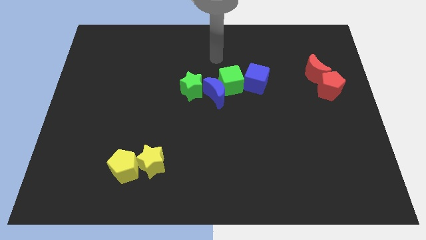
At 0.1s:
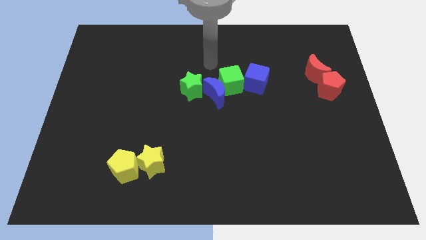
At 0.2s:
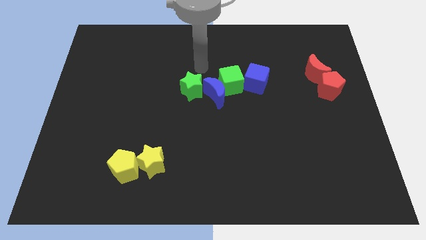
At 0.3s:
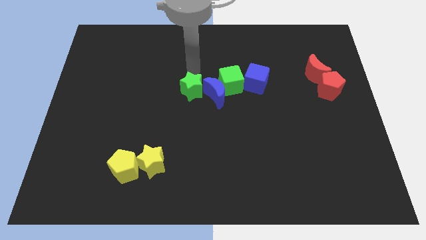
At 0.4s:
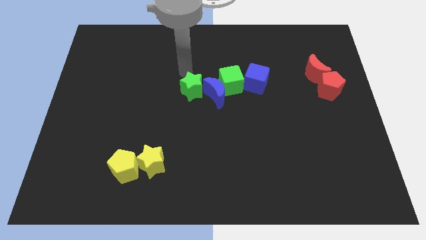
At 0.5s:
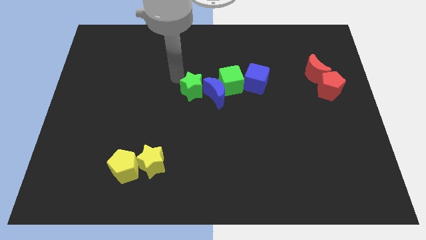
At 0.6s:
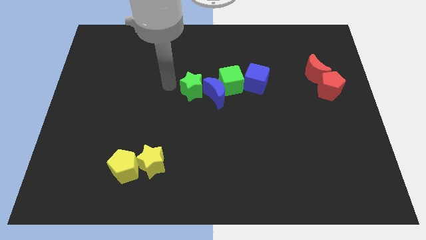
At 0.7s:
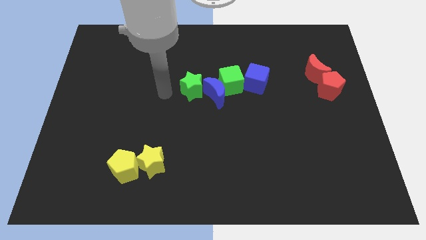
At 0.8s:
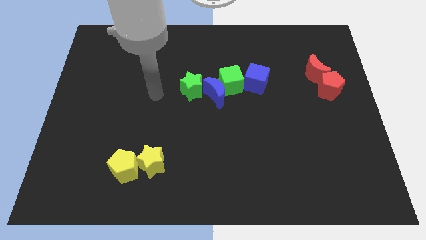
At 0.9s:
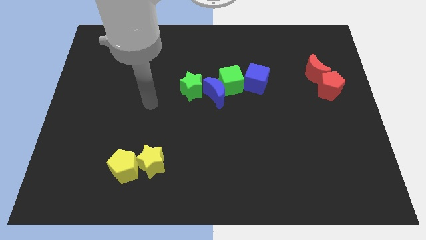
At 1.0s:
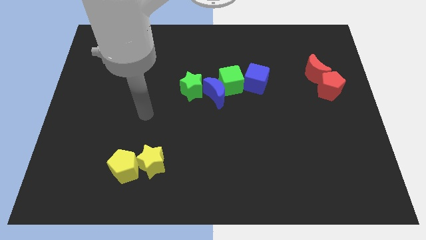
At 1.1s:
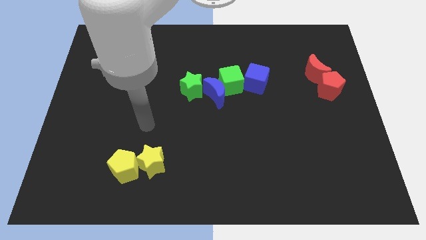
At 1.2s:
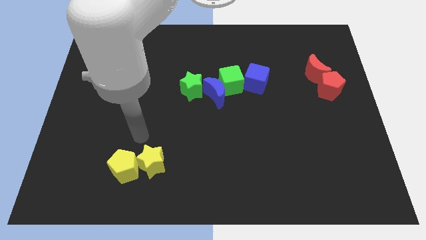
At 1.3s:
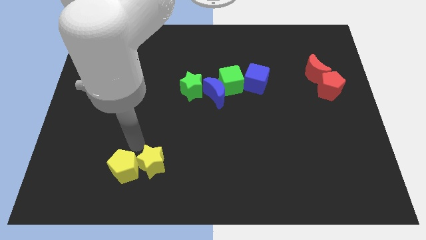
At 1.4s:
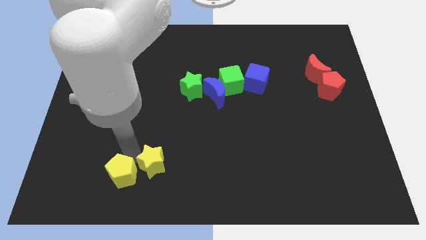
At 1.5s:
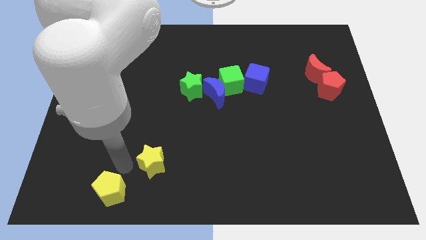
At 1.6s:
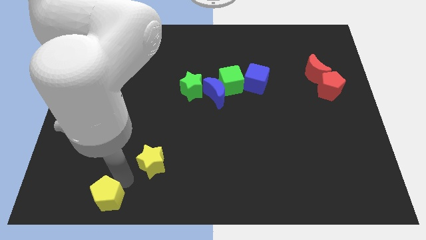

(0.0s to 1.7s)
pull the yellow star apart from the yellow pentagon

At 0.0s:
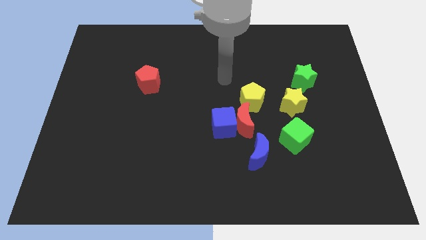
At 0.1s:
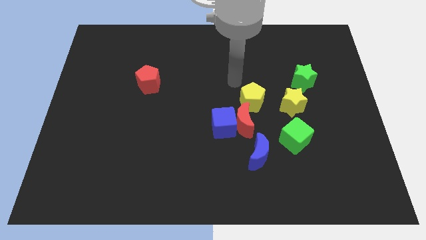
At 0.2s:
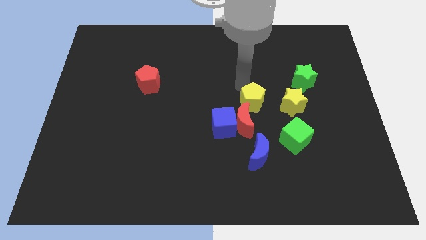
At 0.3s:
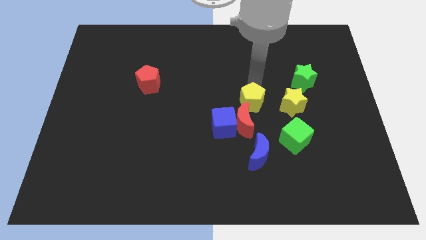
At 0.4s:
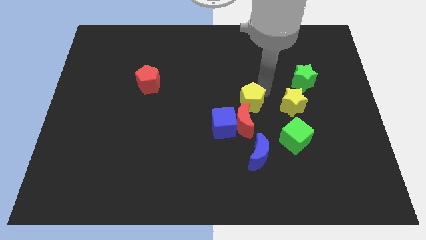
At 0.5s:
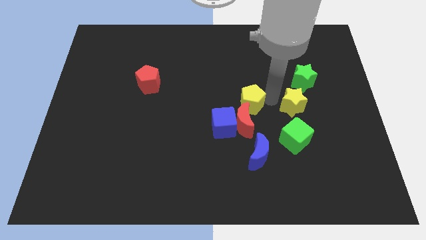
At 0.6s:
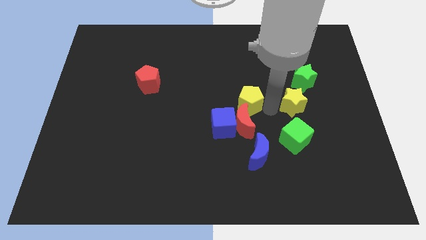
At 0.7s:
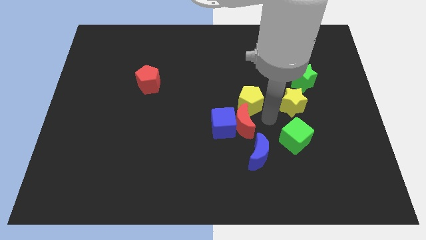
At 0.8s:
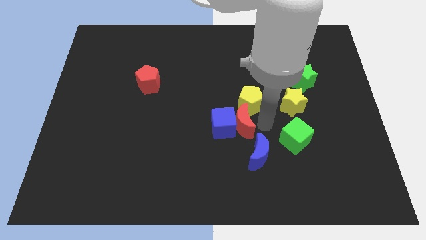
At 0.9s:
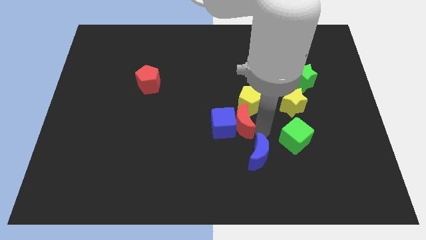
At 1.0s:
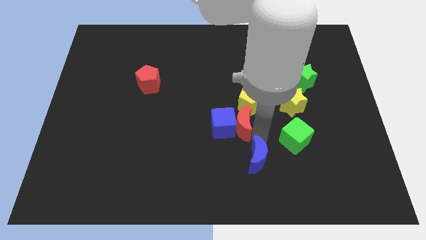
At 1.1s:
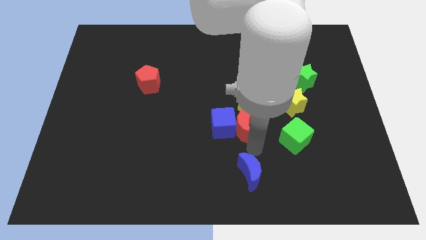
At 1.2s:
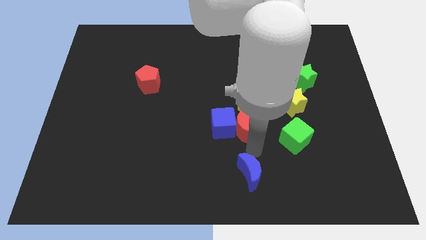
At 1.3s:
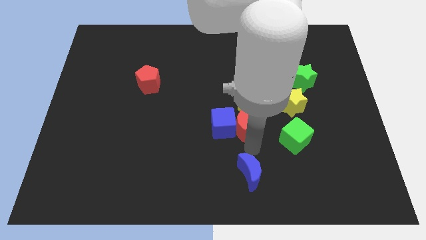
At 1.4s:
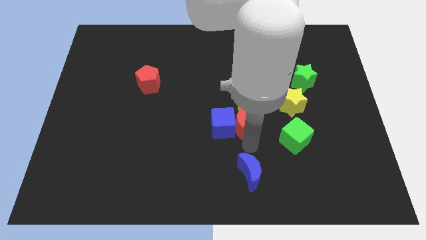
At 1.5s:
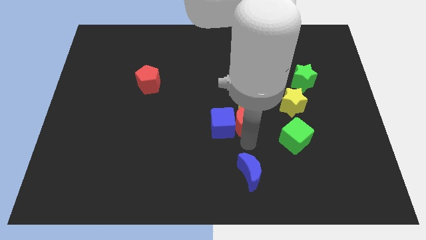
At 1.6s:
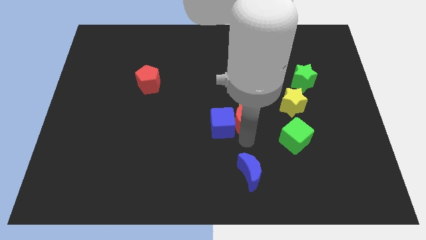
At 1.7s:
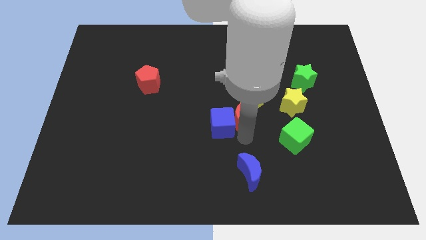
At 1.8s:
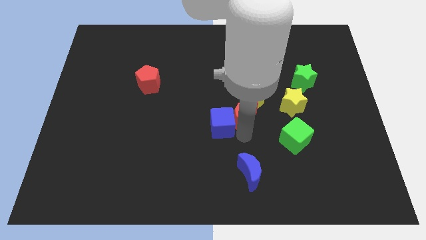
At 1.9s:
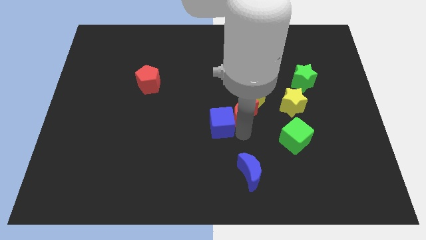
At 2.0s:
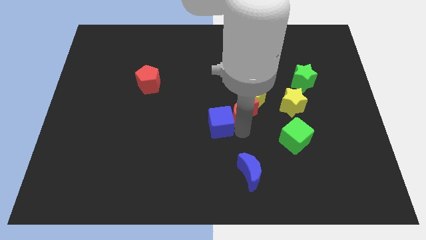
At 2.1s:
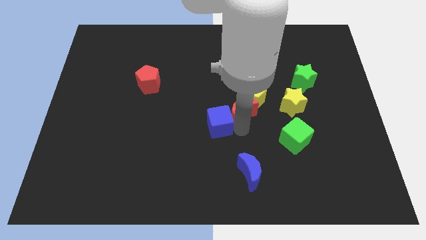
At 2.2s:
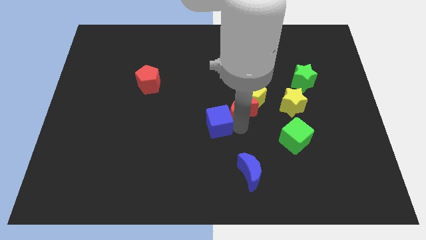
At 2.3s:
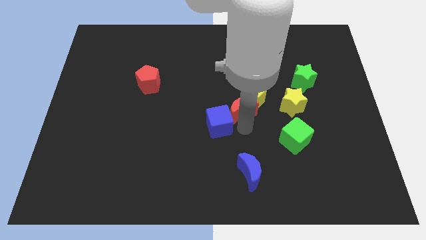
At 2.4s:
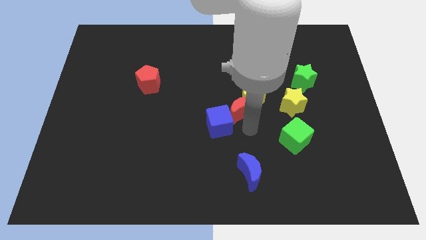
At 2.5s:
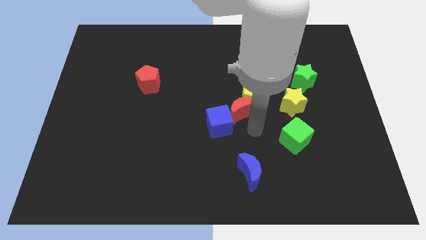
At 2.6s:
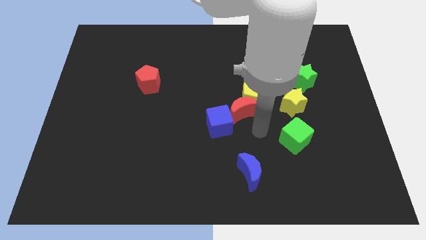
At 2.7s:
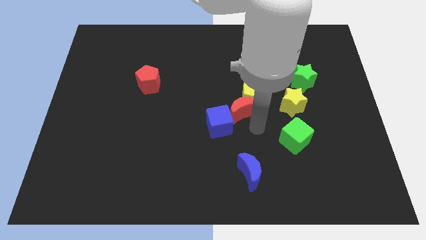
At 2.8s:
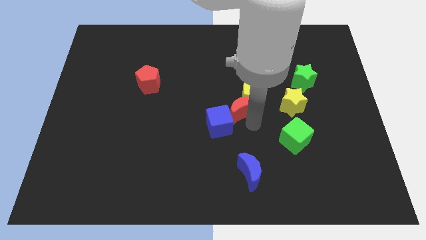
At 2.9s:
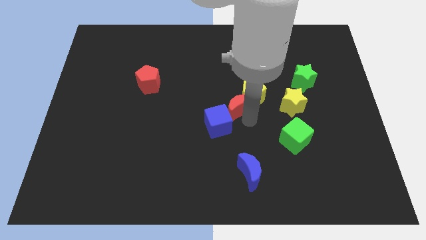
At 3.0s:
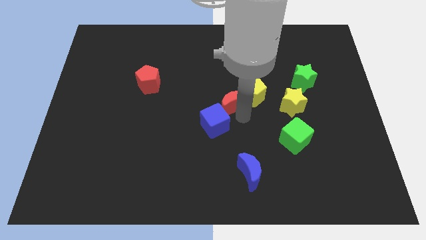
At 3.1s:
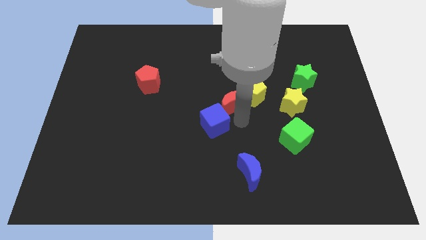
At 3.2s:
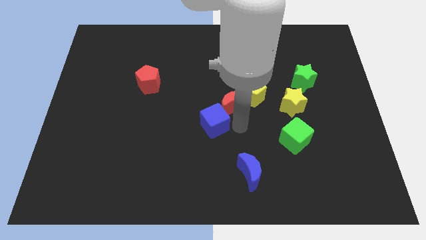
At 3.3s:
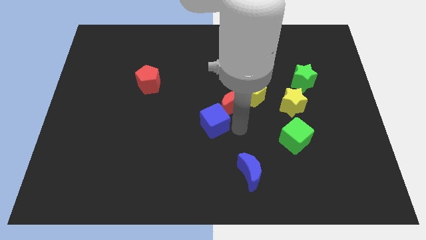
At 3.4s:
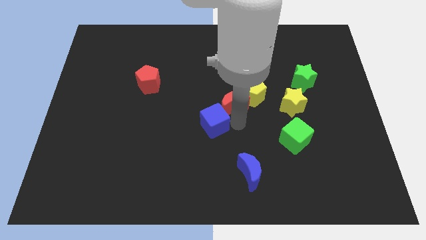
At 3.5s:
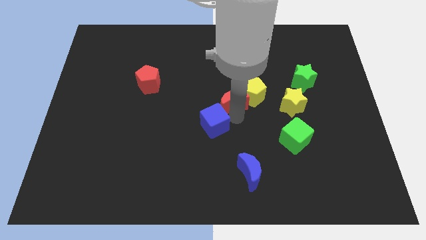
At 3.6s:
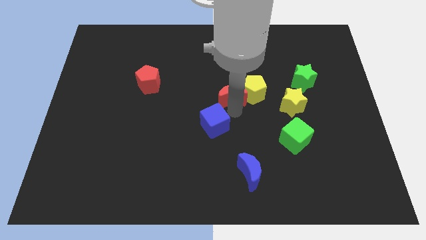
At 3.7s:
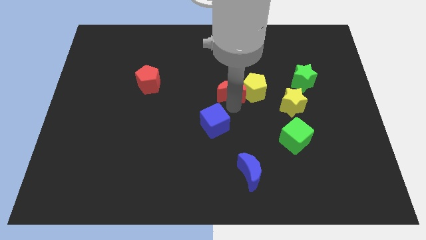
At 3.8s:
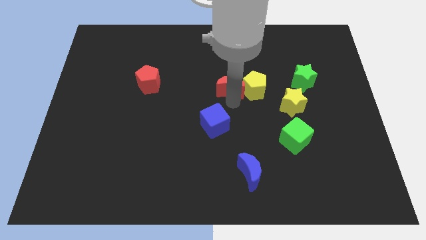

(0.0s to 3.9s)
separate the red moon from the group

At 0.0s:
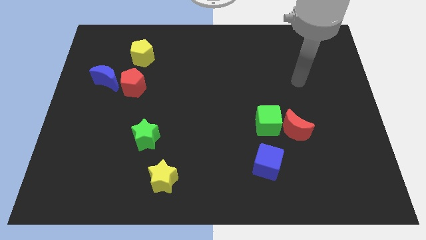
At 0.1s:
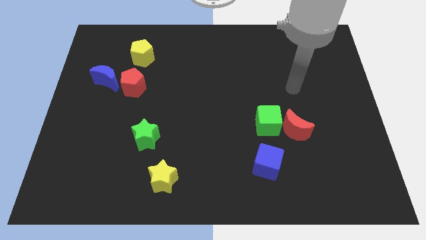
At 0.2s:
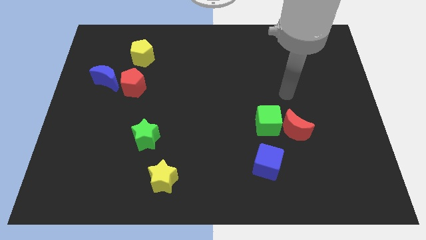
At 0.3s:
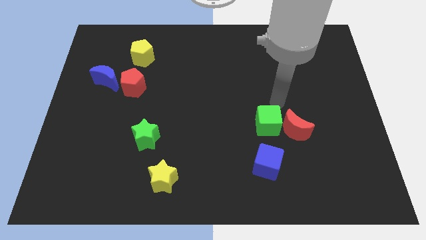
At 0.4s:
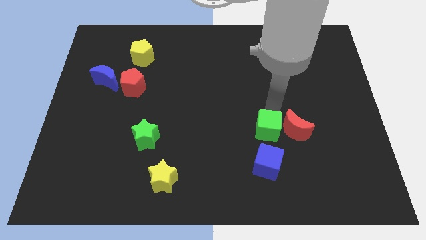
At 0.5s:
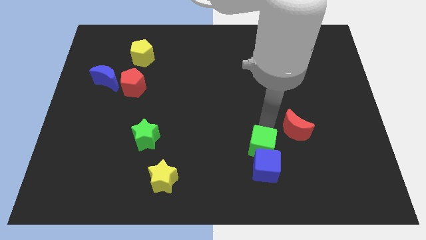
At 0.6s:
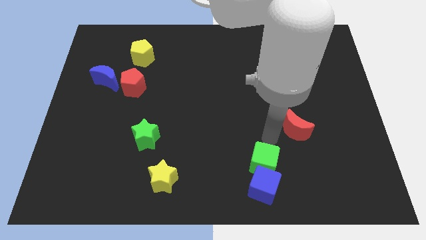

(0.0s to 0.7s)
pull the red moon apart from the green cube

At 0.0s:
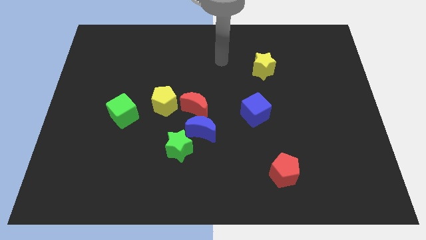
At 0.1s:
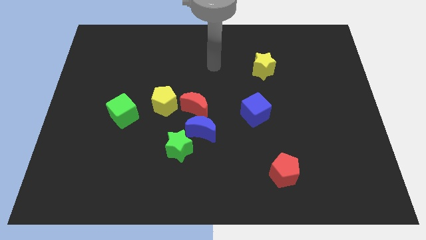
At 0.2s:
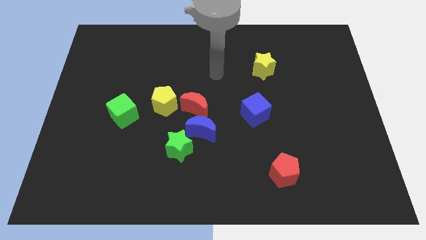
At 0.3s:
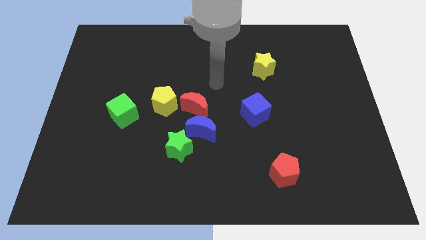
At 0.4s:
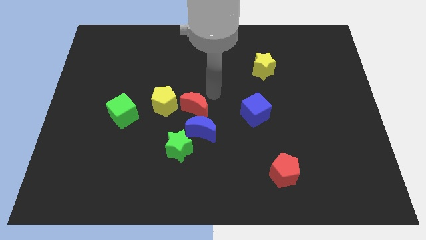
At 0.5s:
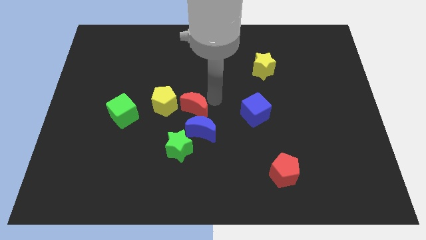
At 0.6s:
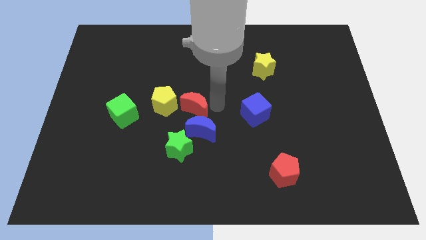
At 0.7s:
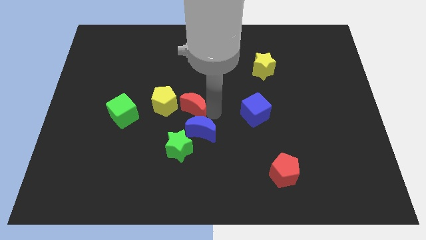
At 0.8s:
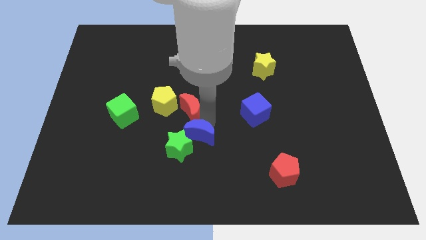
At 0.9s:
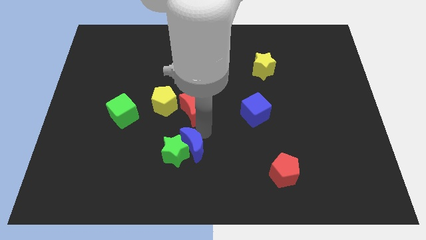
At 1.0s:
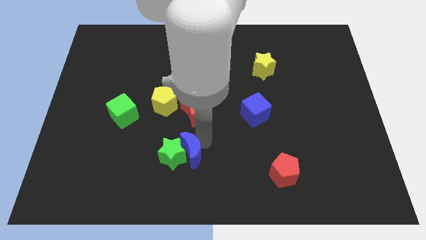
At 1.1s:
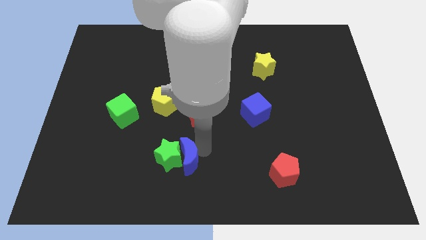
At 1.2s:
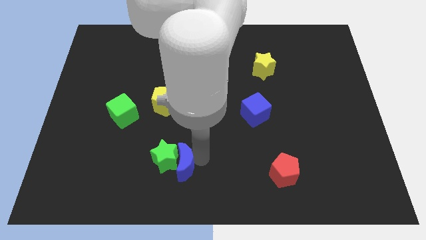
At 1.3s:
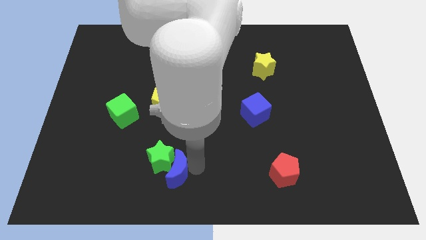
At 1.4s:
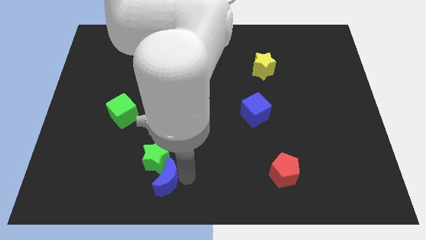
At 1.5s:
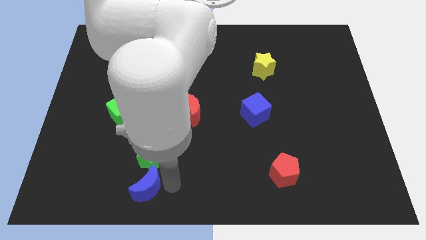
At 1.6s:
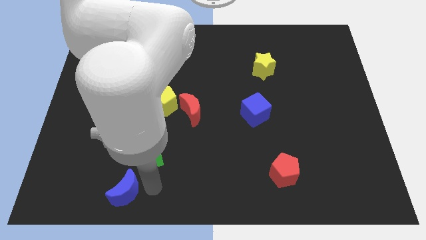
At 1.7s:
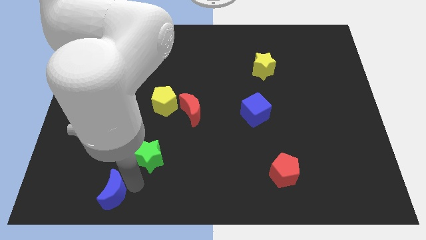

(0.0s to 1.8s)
pull the green star apart from the blue moon

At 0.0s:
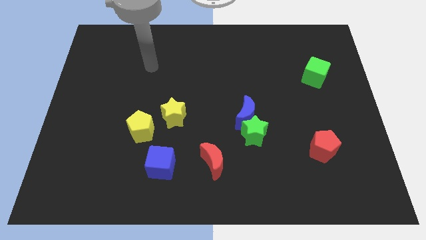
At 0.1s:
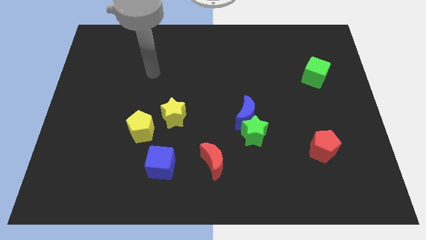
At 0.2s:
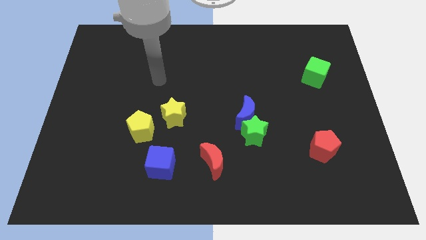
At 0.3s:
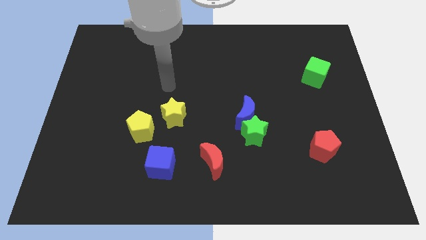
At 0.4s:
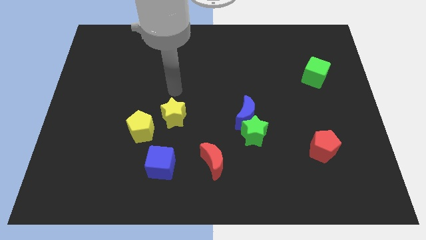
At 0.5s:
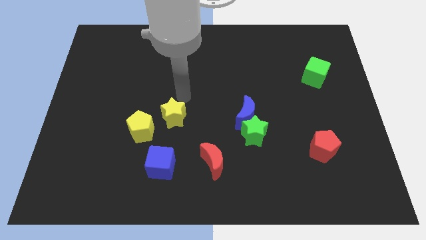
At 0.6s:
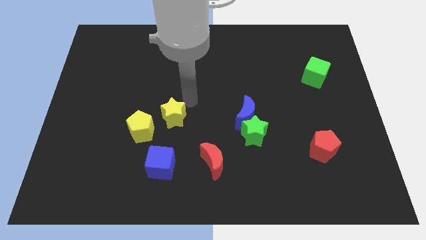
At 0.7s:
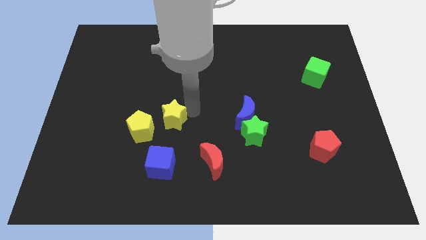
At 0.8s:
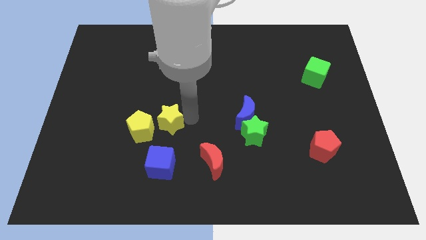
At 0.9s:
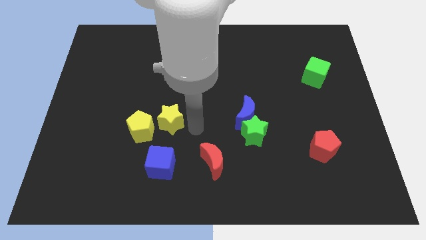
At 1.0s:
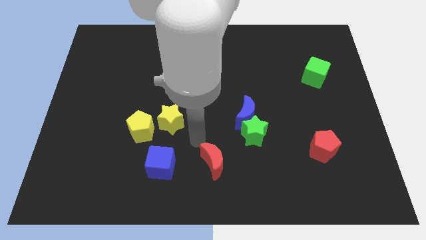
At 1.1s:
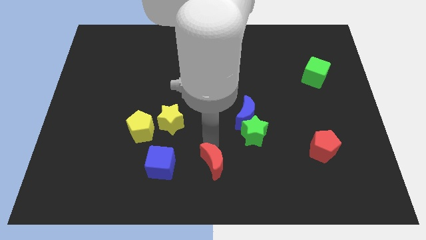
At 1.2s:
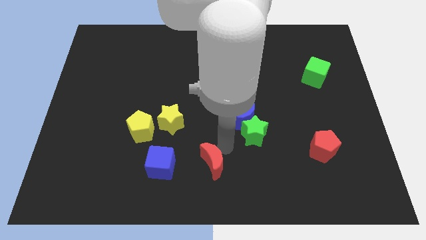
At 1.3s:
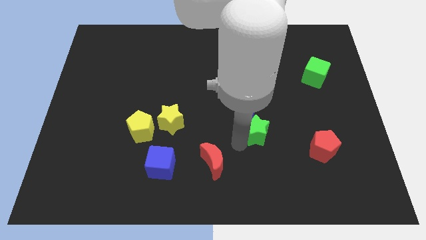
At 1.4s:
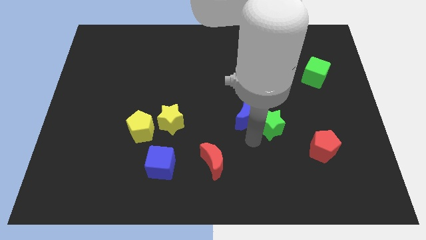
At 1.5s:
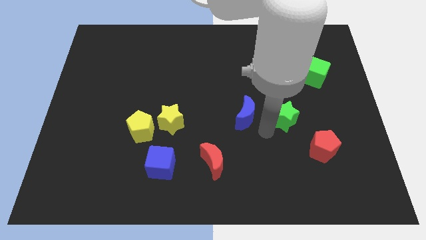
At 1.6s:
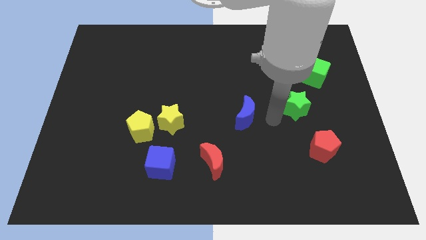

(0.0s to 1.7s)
move the blue moon away from the green star
